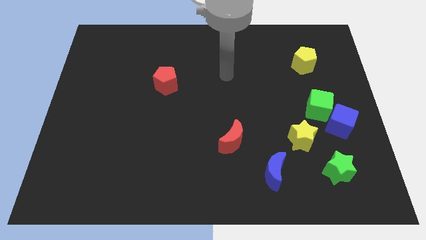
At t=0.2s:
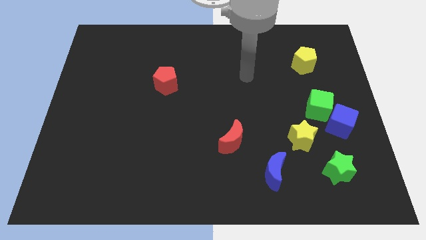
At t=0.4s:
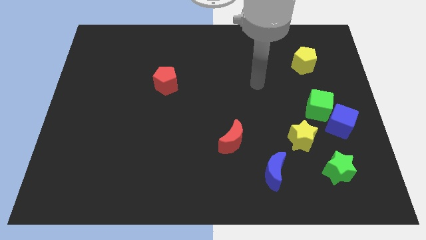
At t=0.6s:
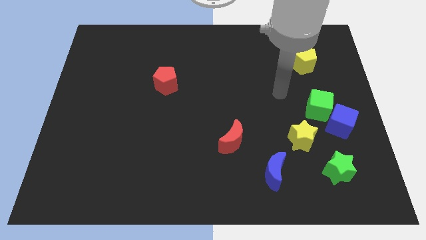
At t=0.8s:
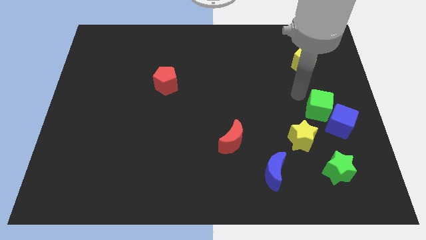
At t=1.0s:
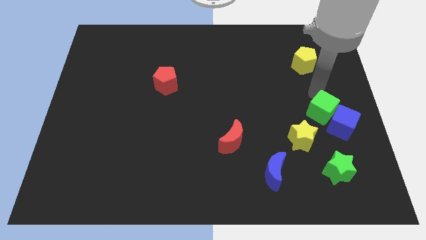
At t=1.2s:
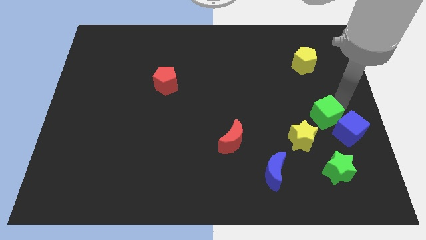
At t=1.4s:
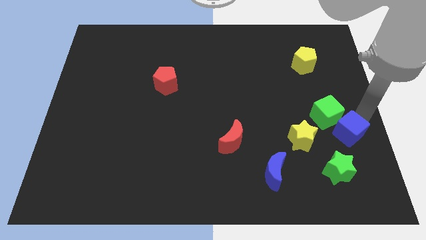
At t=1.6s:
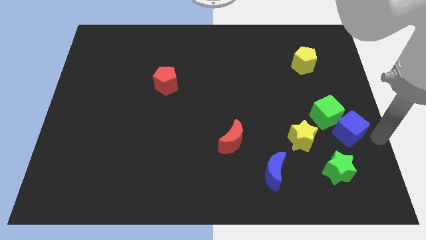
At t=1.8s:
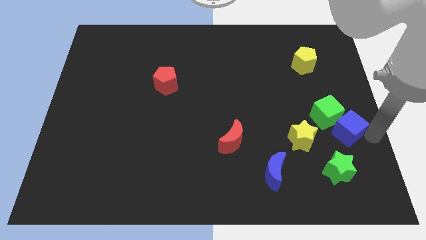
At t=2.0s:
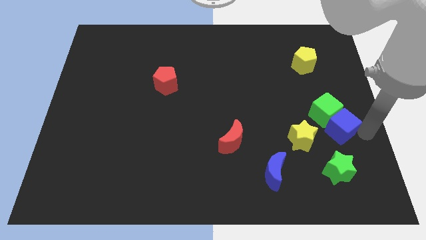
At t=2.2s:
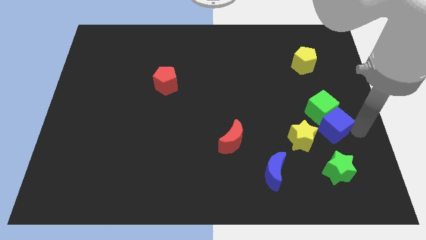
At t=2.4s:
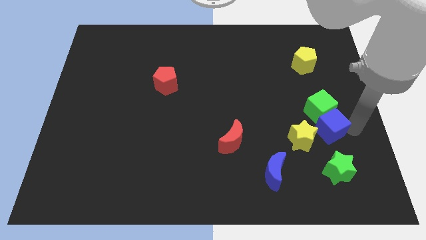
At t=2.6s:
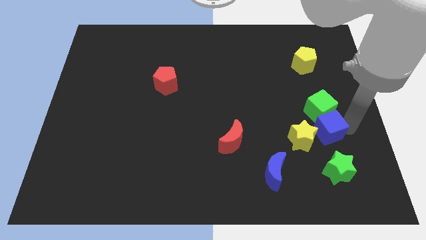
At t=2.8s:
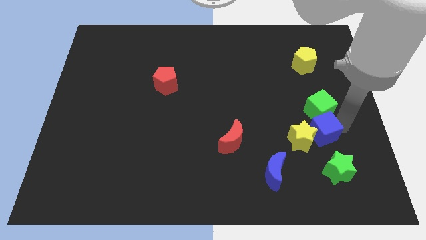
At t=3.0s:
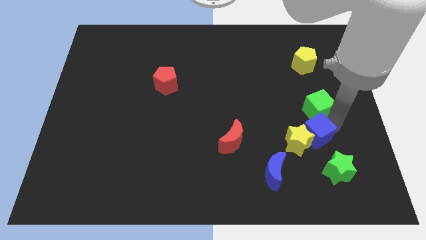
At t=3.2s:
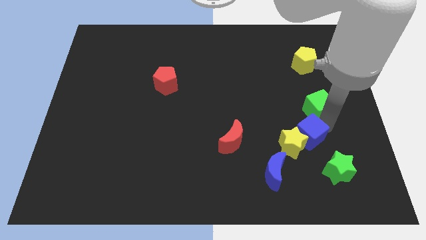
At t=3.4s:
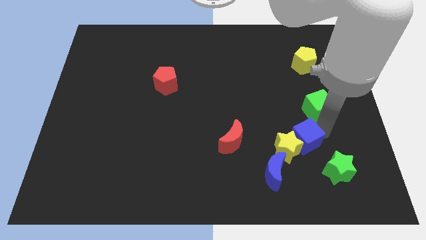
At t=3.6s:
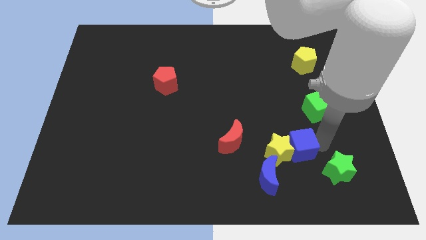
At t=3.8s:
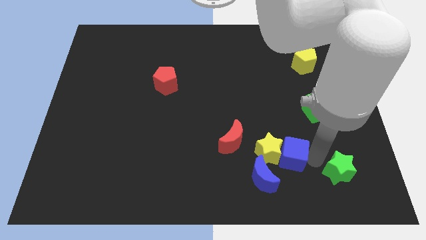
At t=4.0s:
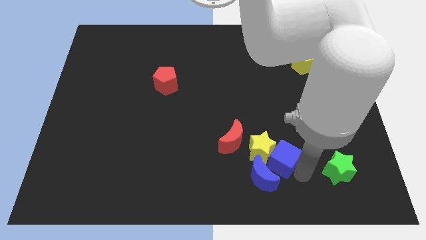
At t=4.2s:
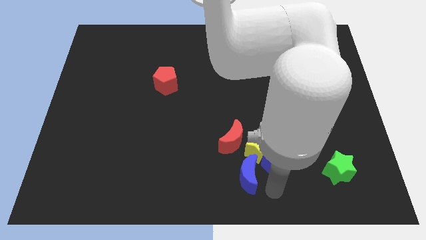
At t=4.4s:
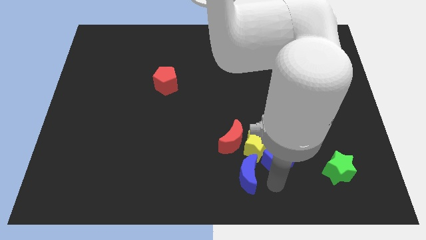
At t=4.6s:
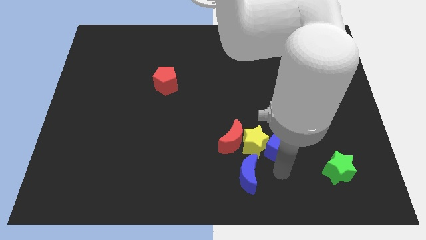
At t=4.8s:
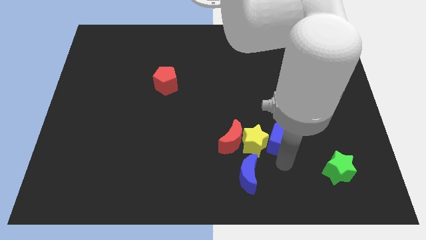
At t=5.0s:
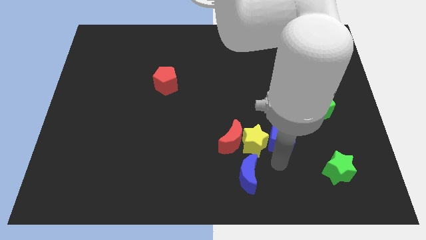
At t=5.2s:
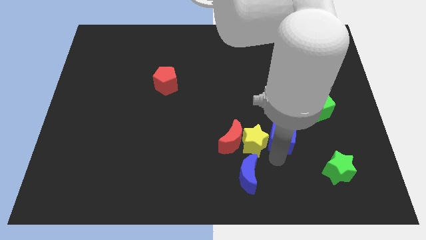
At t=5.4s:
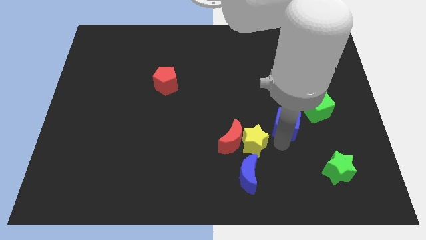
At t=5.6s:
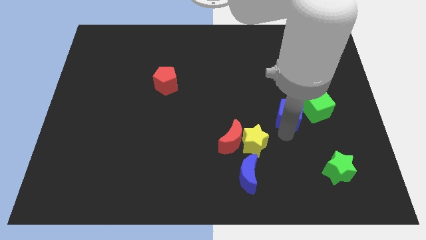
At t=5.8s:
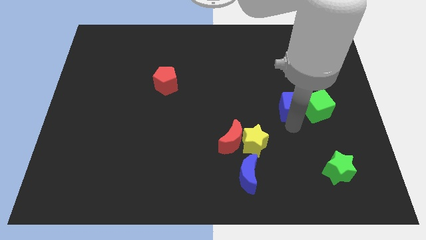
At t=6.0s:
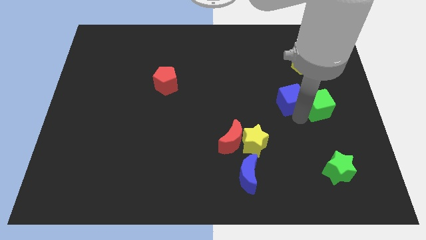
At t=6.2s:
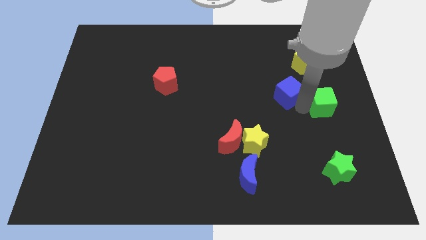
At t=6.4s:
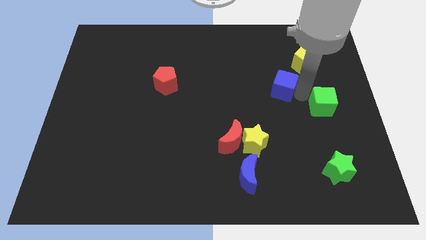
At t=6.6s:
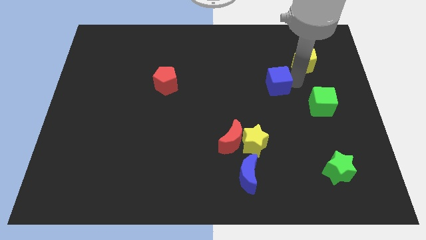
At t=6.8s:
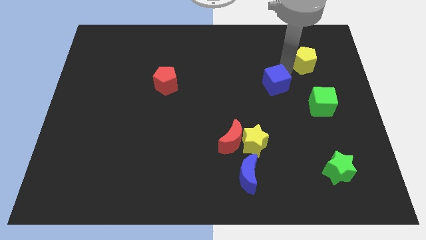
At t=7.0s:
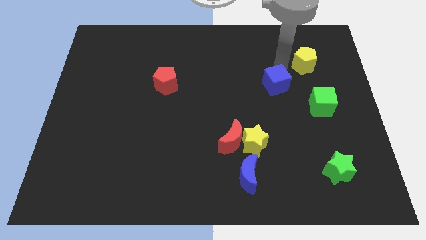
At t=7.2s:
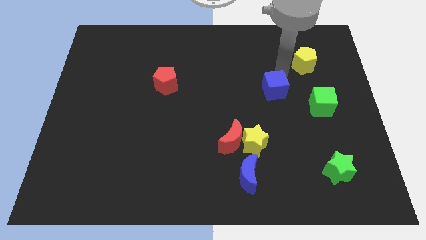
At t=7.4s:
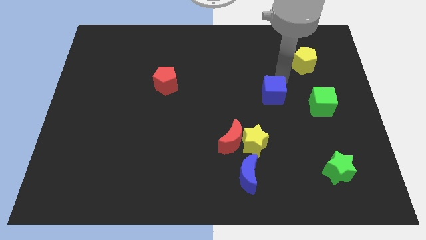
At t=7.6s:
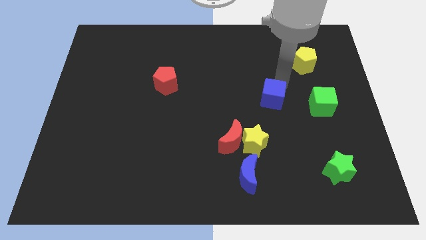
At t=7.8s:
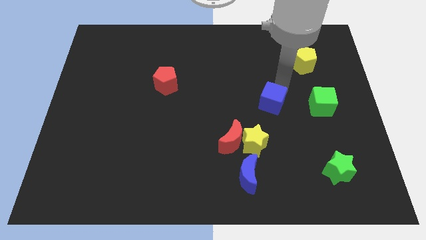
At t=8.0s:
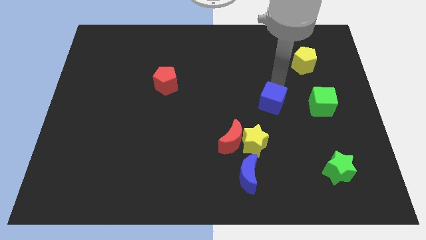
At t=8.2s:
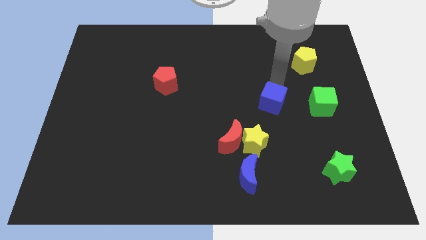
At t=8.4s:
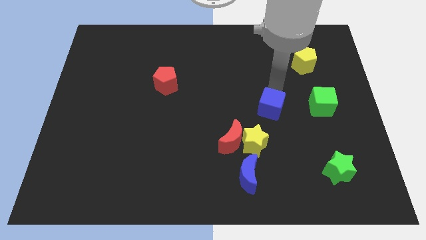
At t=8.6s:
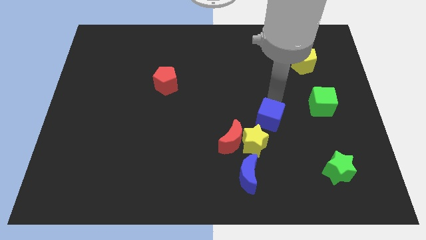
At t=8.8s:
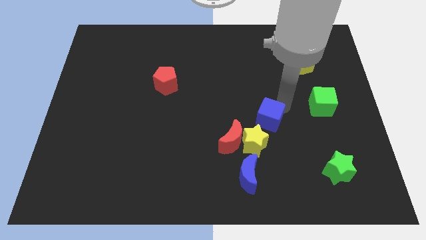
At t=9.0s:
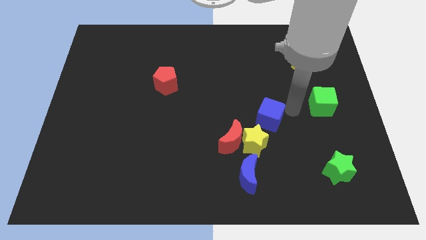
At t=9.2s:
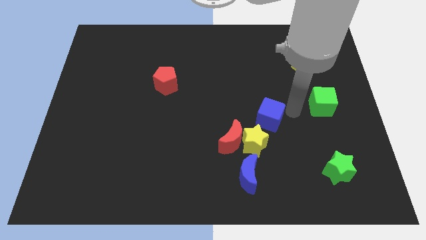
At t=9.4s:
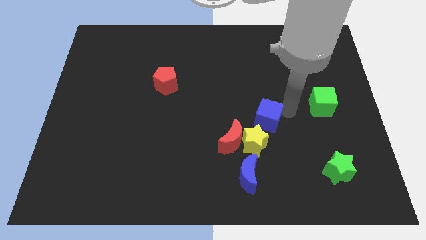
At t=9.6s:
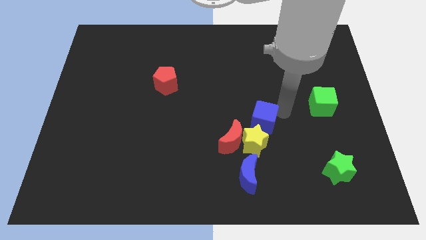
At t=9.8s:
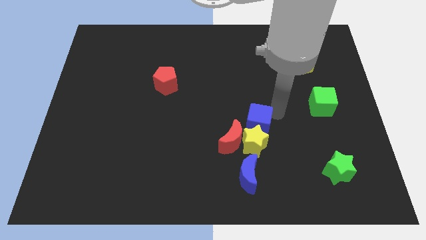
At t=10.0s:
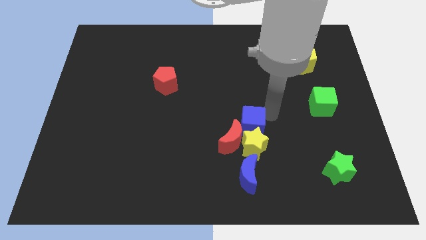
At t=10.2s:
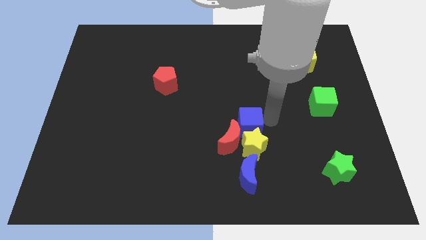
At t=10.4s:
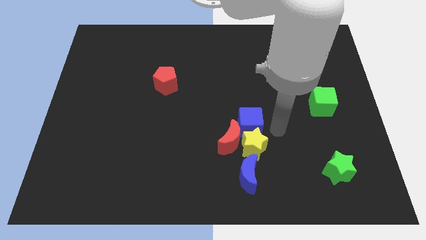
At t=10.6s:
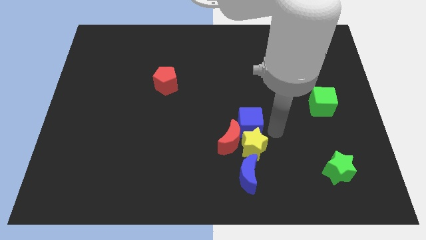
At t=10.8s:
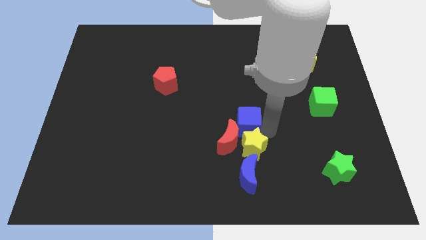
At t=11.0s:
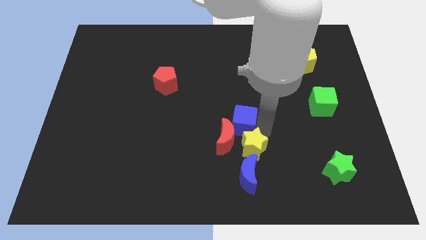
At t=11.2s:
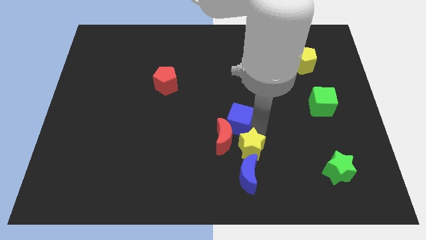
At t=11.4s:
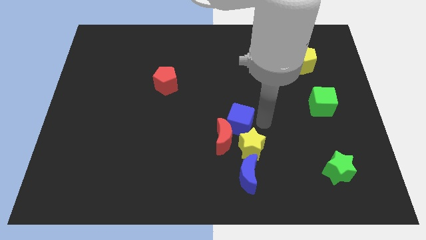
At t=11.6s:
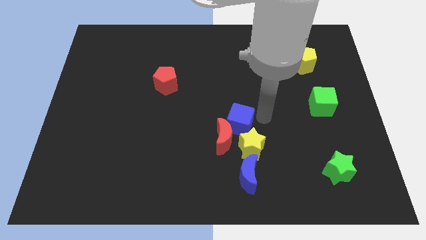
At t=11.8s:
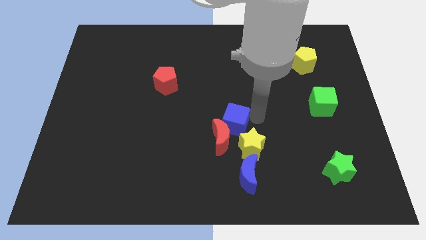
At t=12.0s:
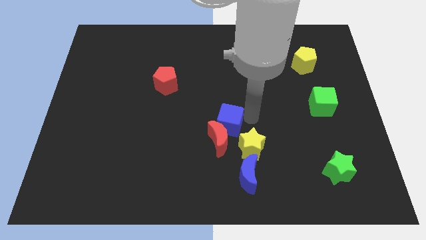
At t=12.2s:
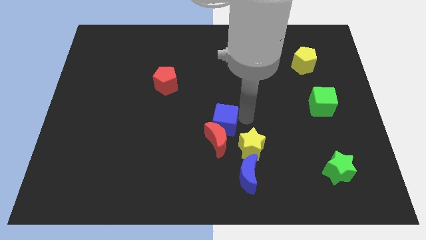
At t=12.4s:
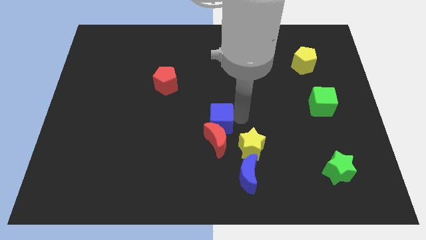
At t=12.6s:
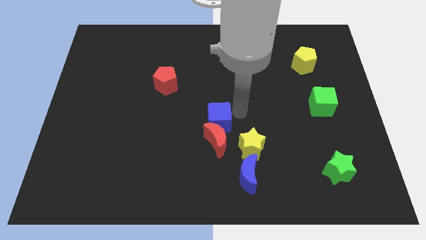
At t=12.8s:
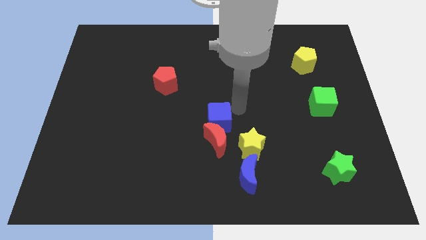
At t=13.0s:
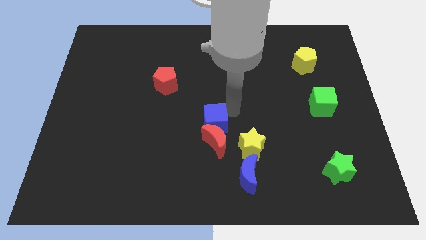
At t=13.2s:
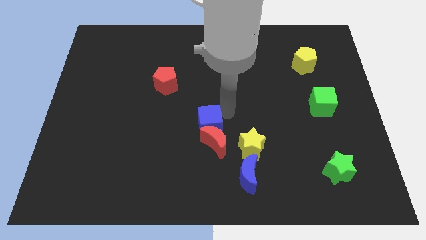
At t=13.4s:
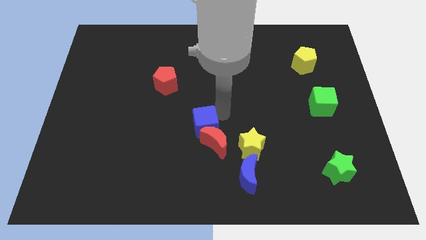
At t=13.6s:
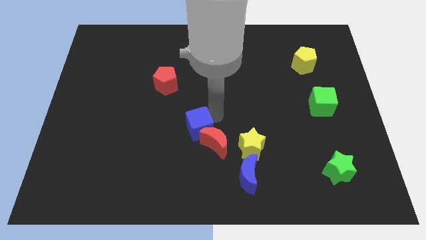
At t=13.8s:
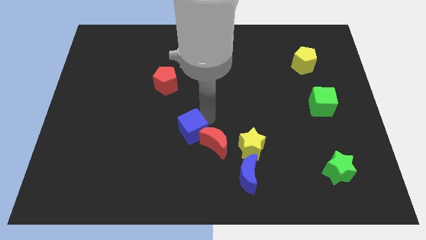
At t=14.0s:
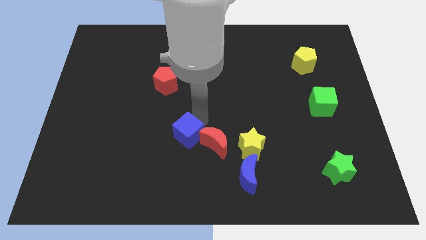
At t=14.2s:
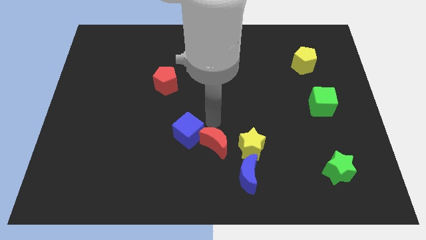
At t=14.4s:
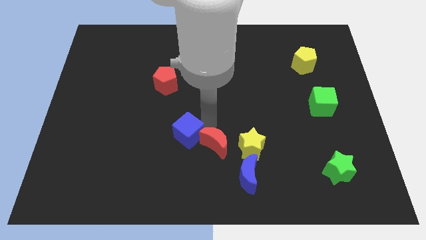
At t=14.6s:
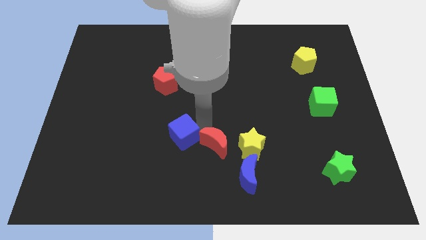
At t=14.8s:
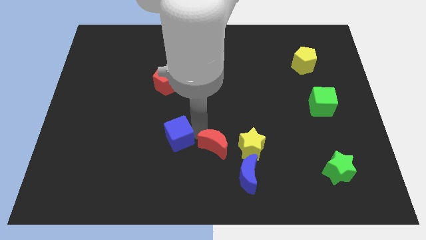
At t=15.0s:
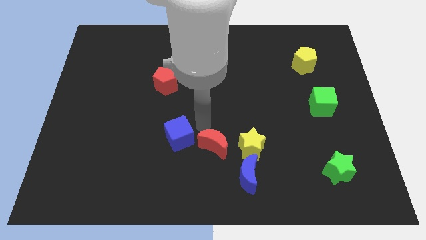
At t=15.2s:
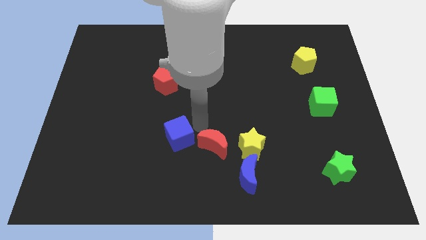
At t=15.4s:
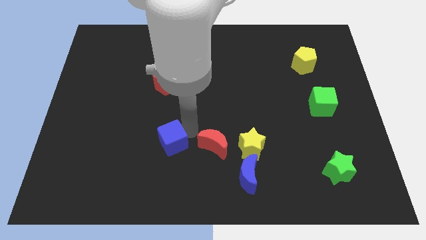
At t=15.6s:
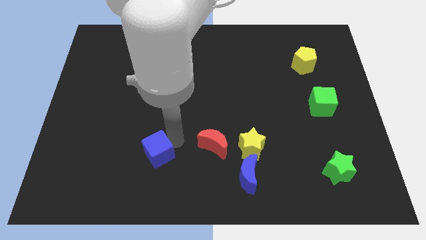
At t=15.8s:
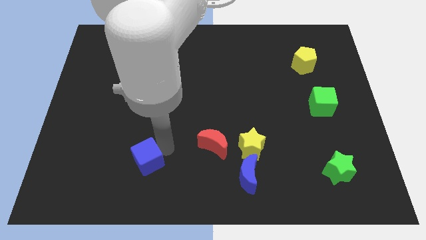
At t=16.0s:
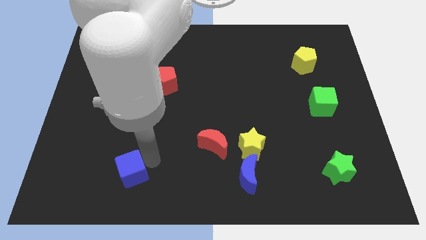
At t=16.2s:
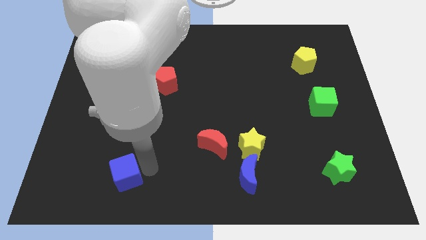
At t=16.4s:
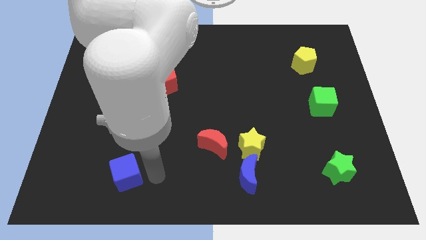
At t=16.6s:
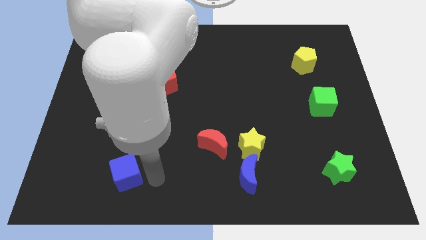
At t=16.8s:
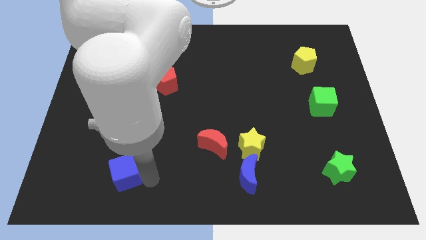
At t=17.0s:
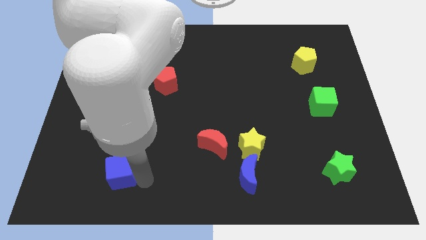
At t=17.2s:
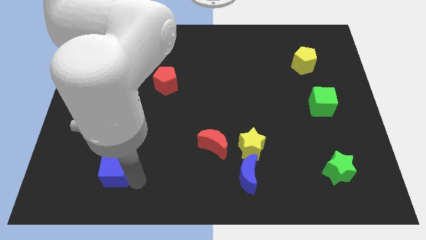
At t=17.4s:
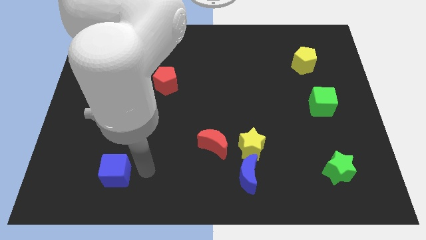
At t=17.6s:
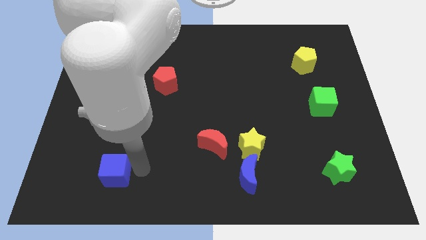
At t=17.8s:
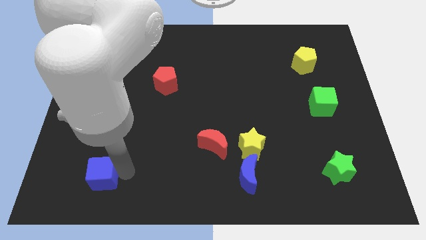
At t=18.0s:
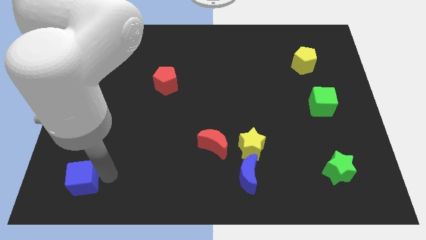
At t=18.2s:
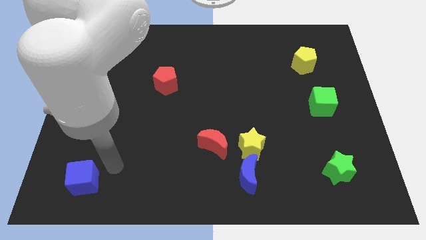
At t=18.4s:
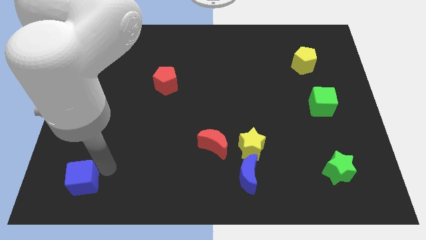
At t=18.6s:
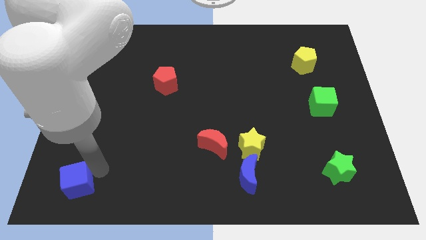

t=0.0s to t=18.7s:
put the blue cube to the bottom left corner
